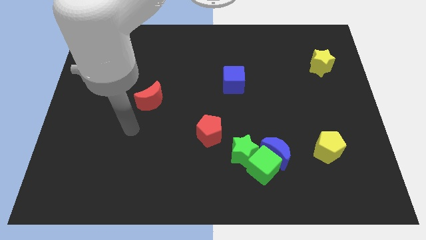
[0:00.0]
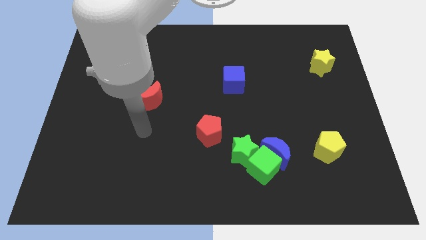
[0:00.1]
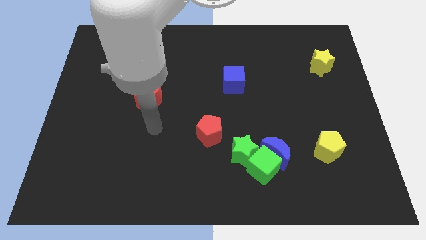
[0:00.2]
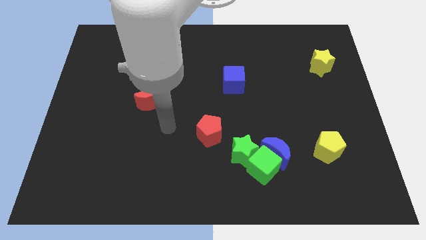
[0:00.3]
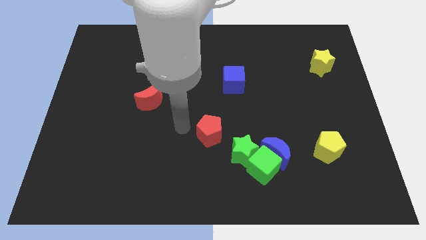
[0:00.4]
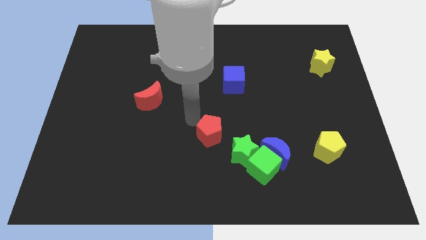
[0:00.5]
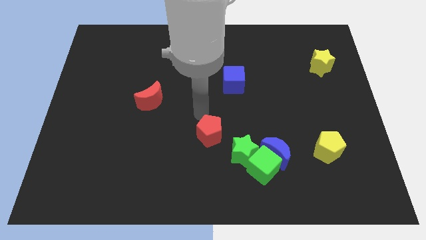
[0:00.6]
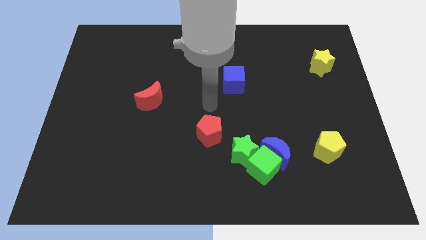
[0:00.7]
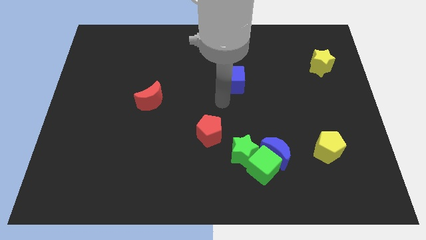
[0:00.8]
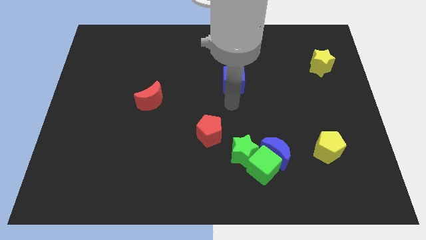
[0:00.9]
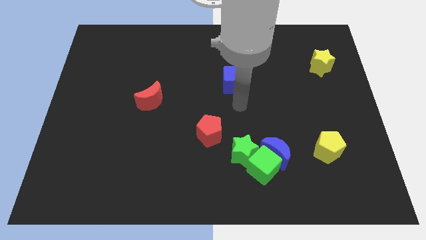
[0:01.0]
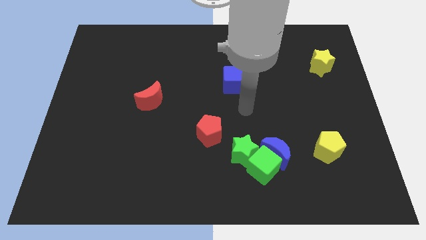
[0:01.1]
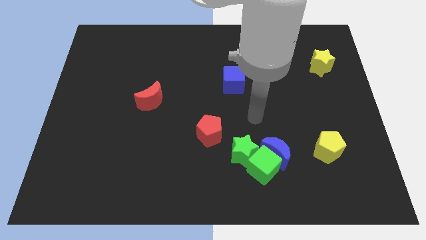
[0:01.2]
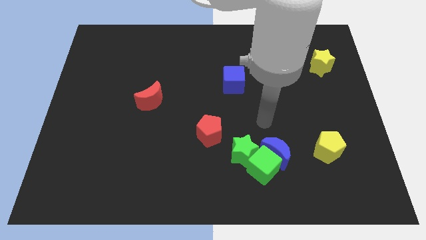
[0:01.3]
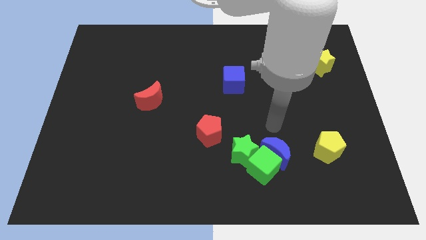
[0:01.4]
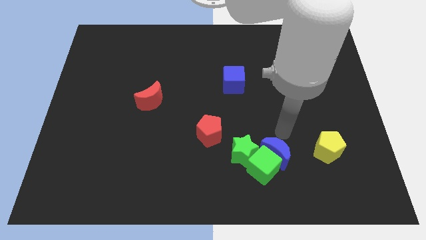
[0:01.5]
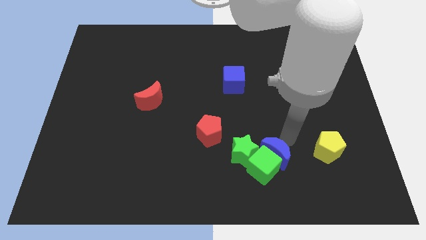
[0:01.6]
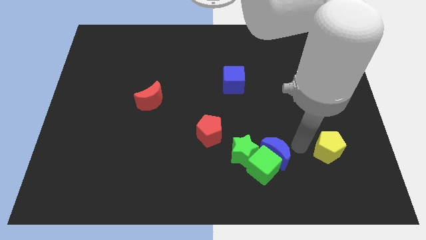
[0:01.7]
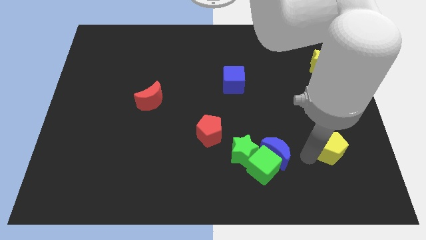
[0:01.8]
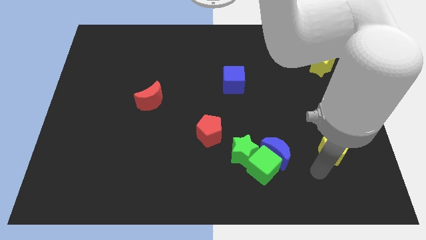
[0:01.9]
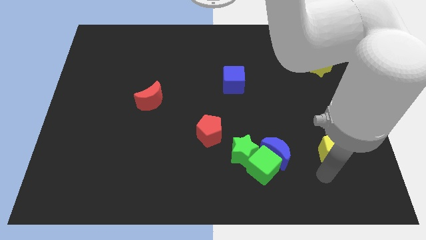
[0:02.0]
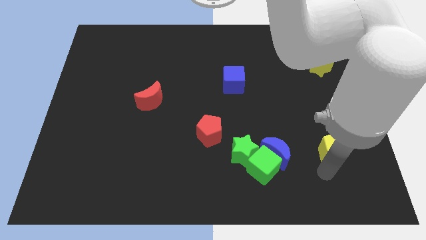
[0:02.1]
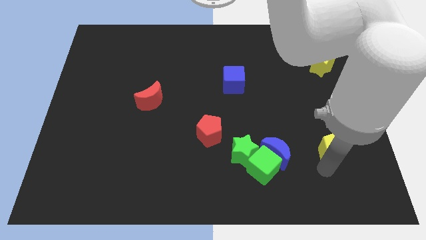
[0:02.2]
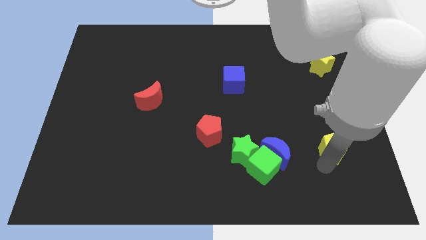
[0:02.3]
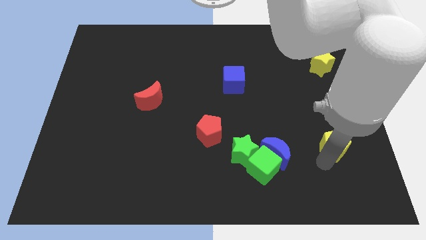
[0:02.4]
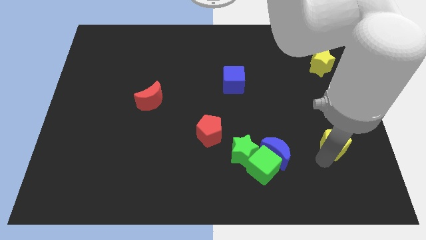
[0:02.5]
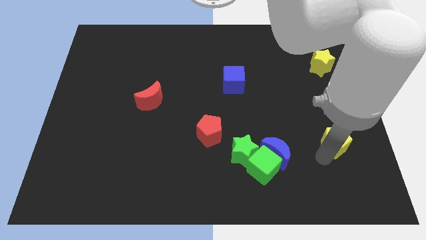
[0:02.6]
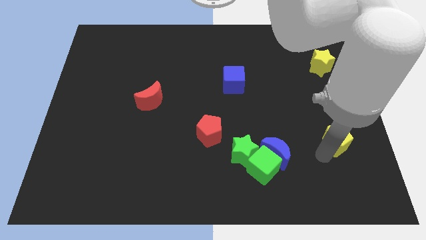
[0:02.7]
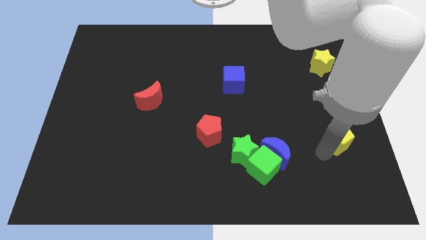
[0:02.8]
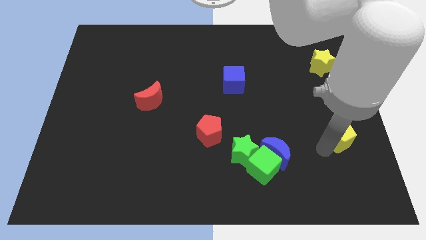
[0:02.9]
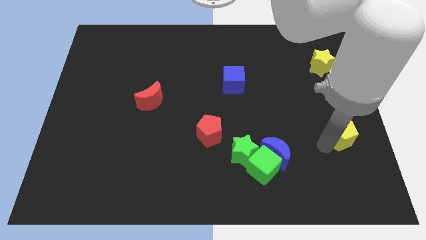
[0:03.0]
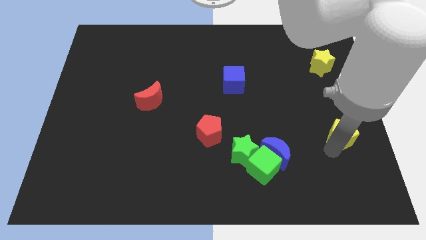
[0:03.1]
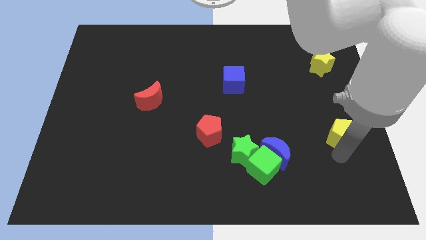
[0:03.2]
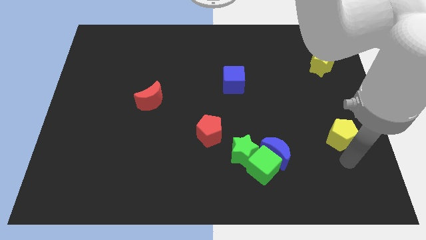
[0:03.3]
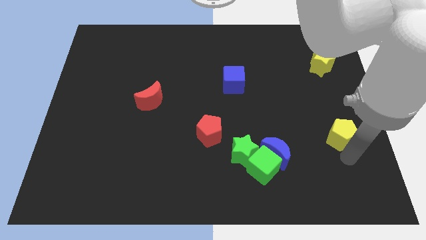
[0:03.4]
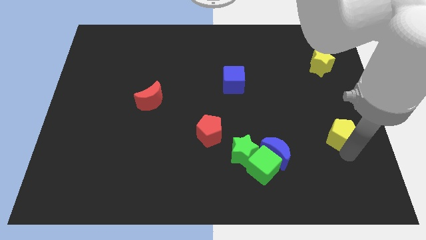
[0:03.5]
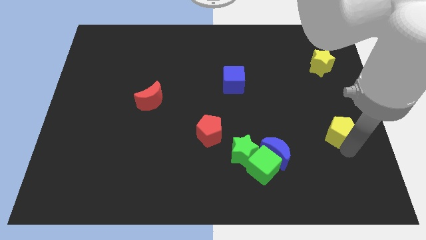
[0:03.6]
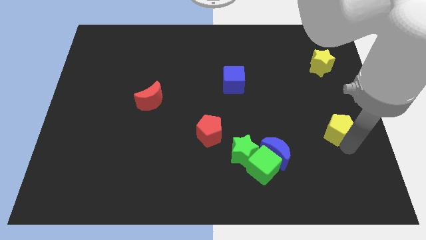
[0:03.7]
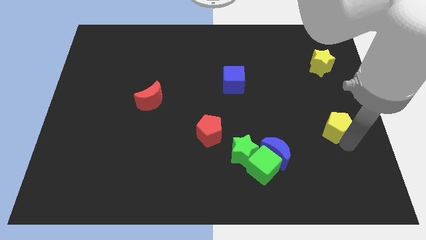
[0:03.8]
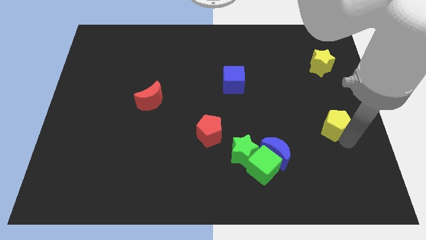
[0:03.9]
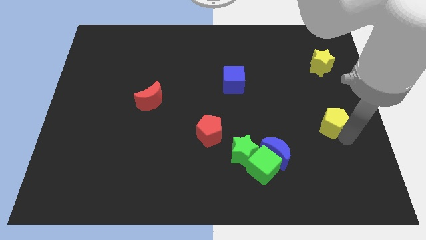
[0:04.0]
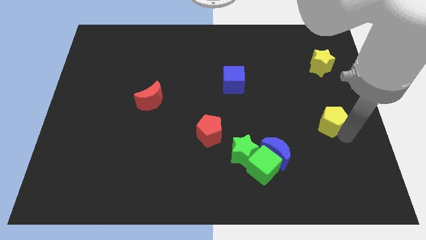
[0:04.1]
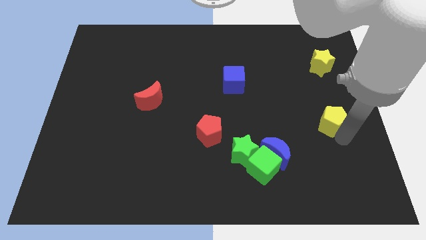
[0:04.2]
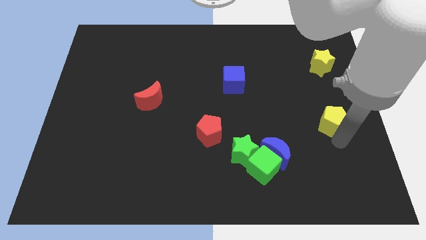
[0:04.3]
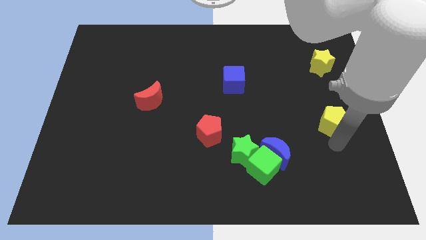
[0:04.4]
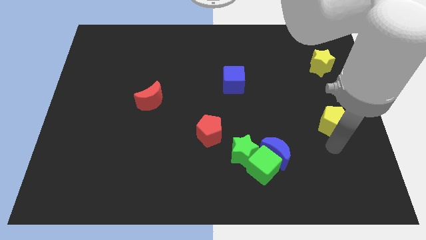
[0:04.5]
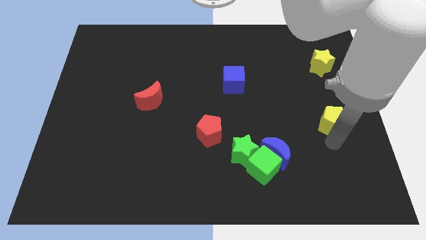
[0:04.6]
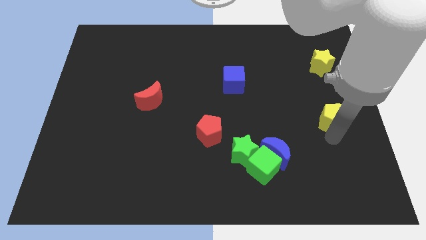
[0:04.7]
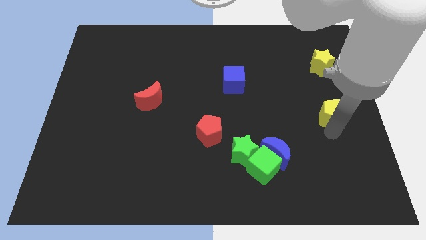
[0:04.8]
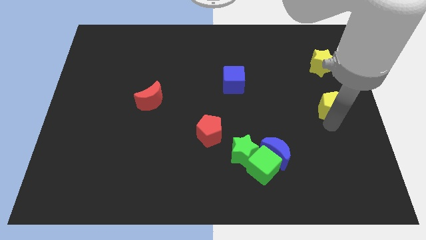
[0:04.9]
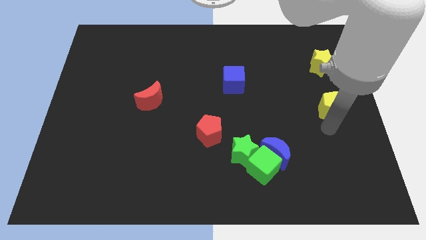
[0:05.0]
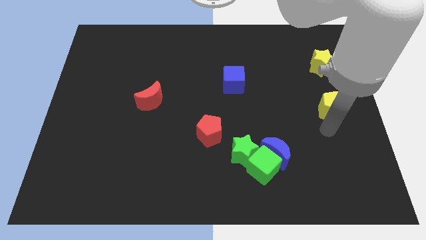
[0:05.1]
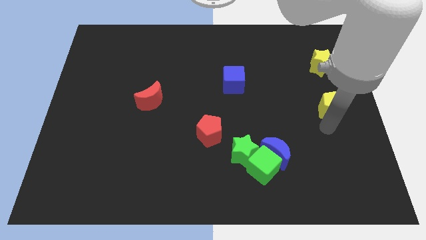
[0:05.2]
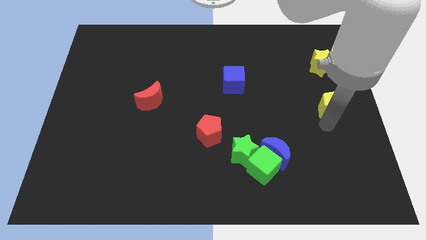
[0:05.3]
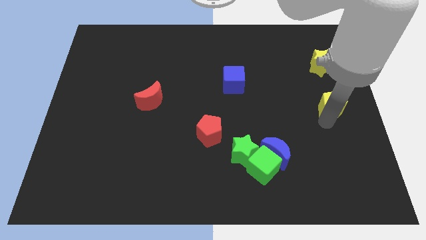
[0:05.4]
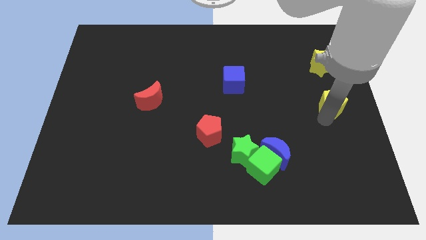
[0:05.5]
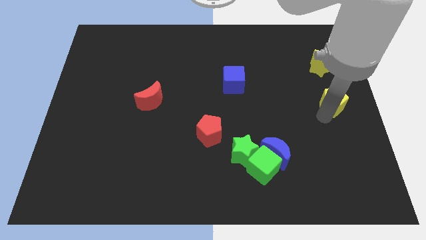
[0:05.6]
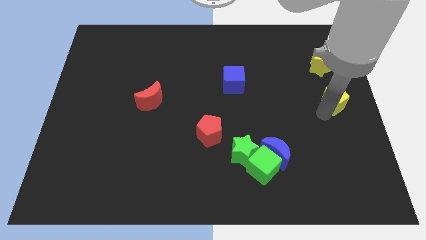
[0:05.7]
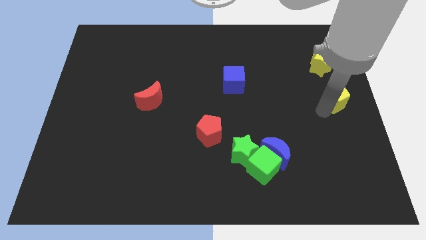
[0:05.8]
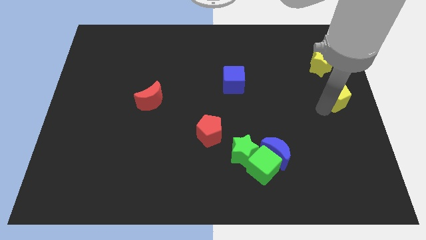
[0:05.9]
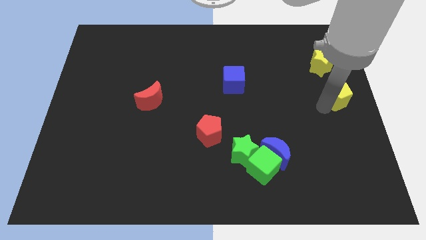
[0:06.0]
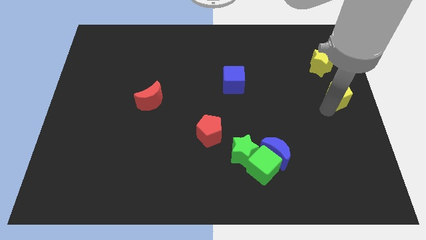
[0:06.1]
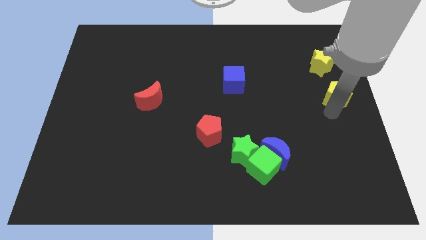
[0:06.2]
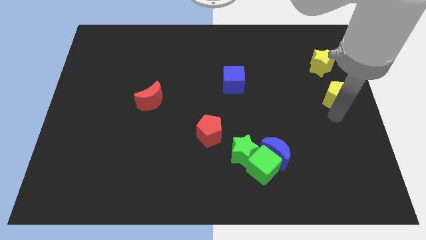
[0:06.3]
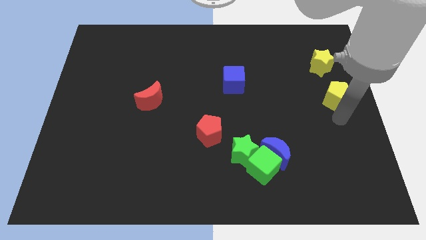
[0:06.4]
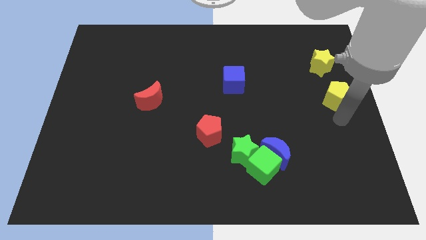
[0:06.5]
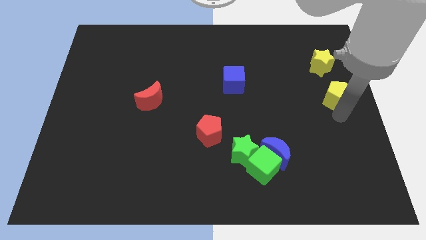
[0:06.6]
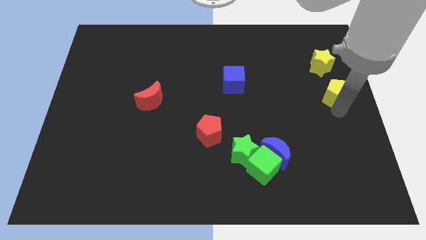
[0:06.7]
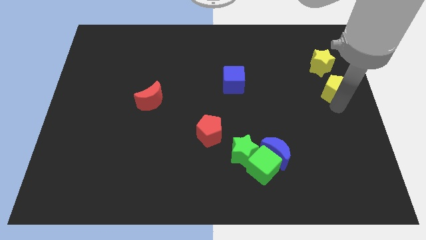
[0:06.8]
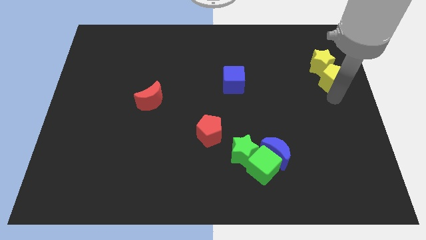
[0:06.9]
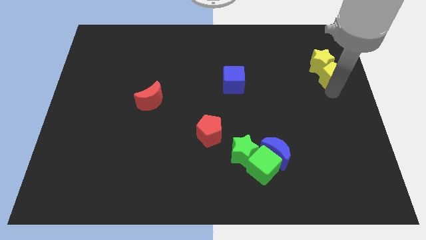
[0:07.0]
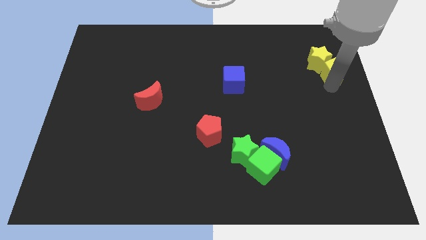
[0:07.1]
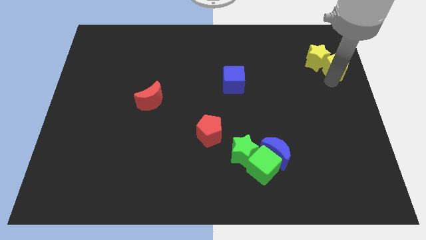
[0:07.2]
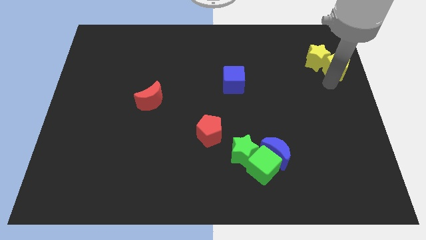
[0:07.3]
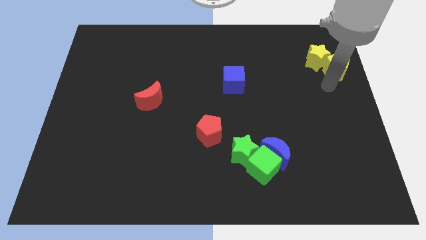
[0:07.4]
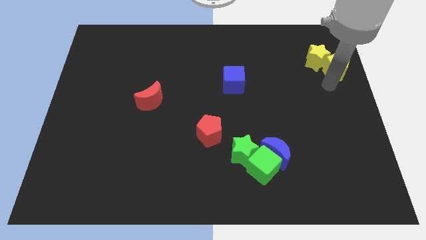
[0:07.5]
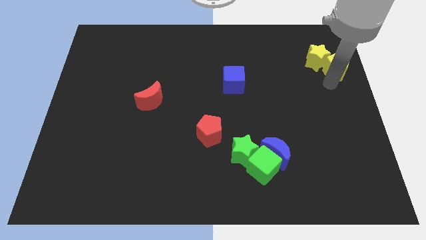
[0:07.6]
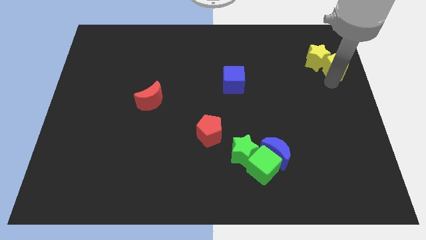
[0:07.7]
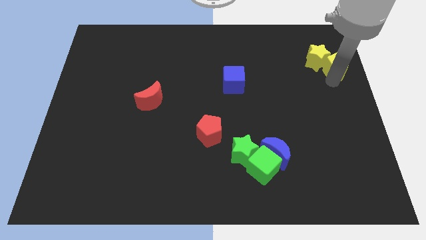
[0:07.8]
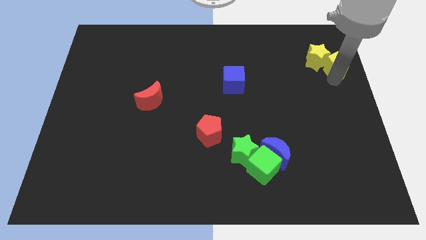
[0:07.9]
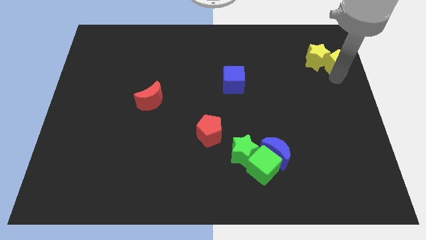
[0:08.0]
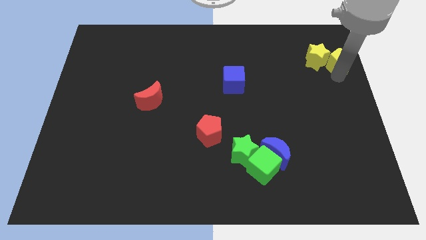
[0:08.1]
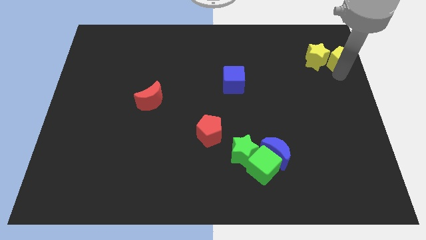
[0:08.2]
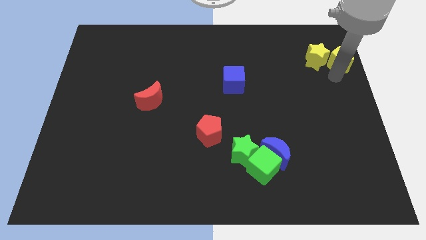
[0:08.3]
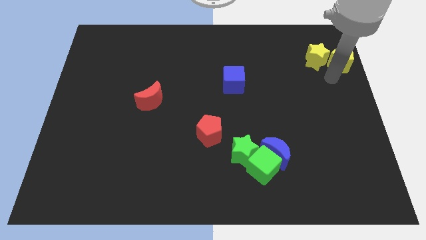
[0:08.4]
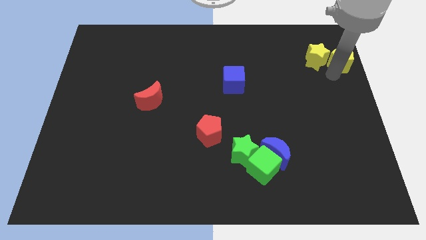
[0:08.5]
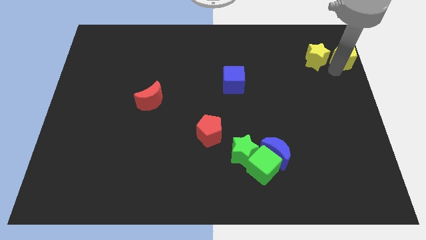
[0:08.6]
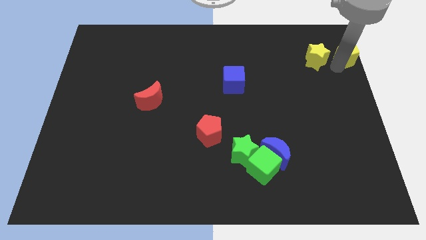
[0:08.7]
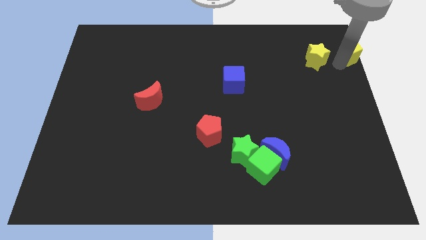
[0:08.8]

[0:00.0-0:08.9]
push the yellow pentagon to the top right corner
